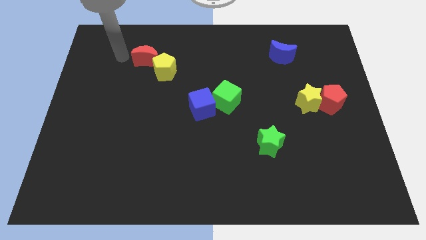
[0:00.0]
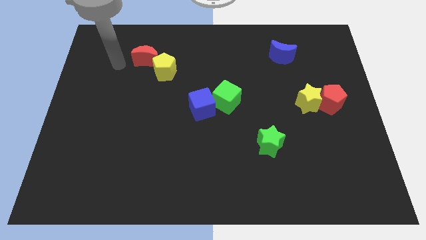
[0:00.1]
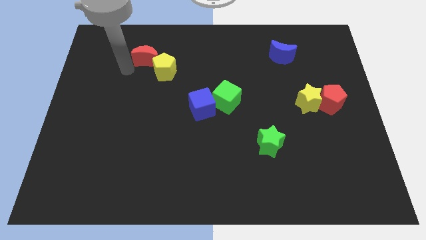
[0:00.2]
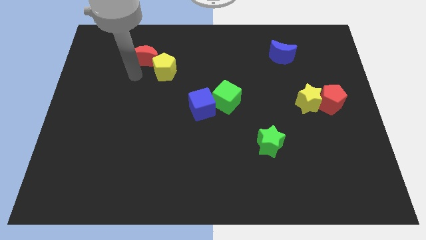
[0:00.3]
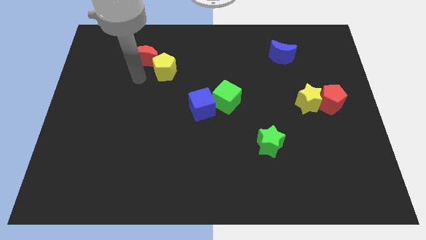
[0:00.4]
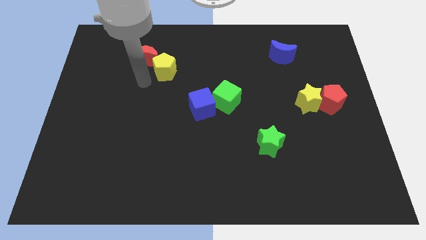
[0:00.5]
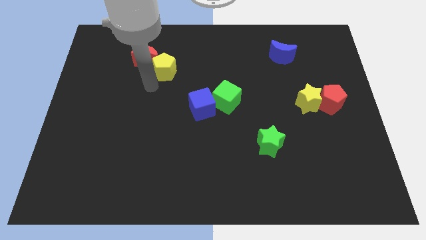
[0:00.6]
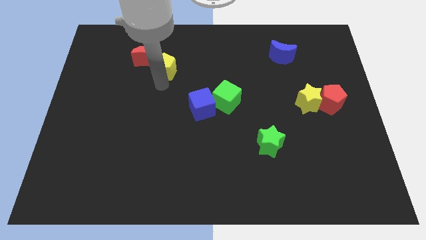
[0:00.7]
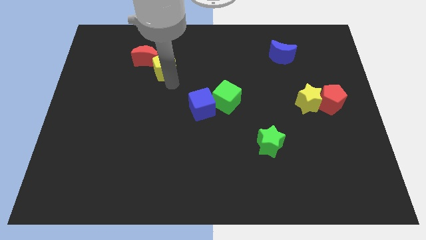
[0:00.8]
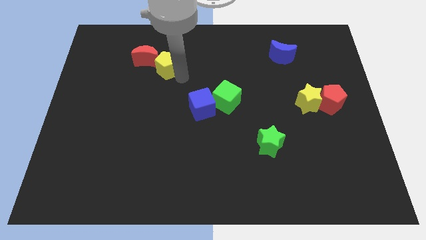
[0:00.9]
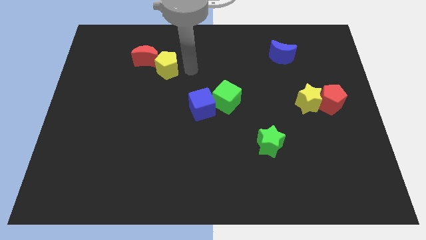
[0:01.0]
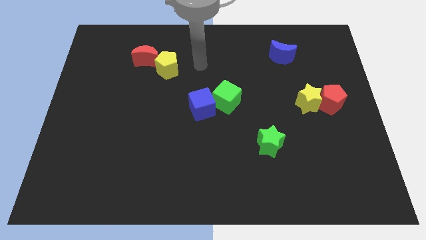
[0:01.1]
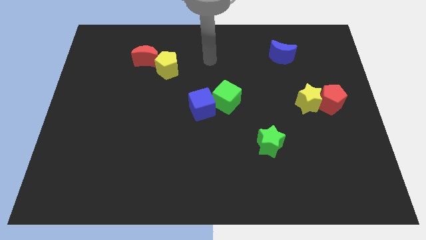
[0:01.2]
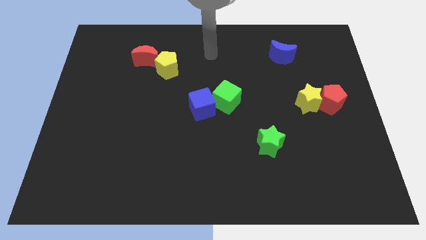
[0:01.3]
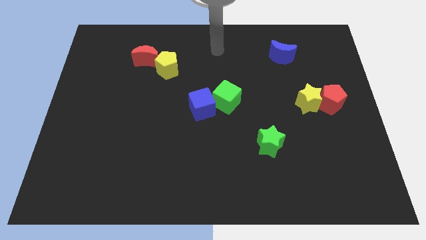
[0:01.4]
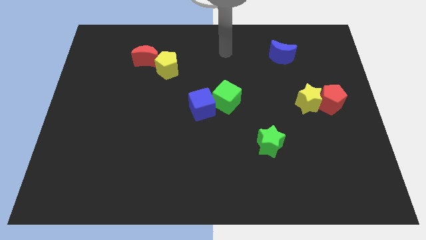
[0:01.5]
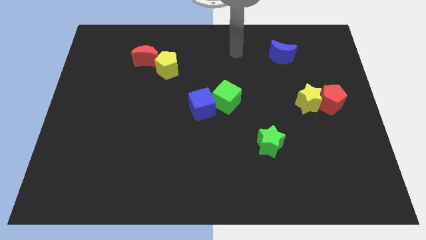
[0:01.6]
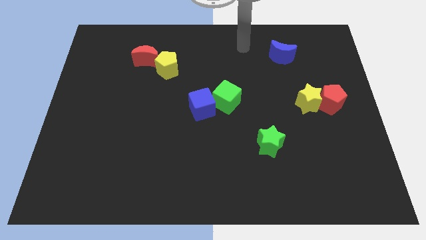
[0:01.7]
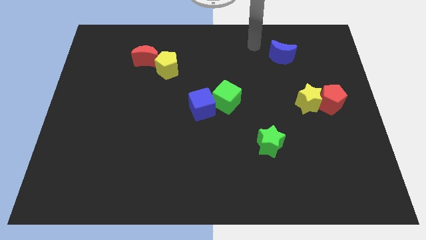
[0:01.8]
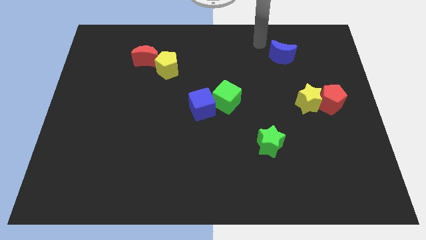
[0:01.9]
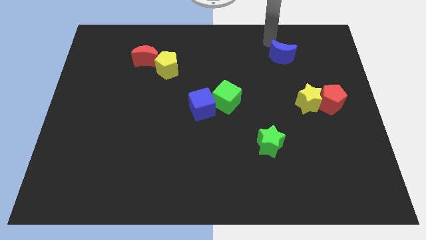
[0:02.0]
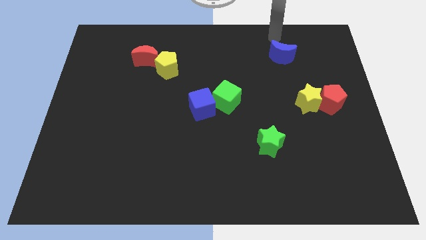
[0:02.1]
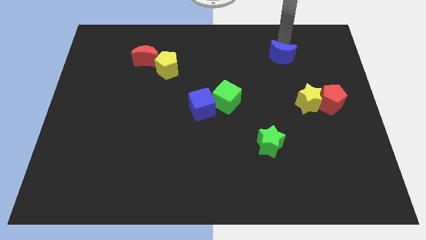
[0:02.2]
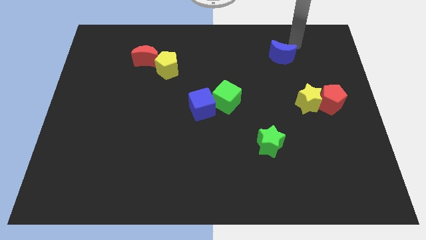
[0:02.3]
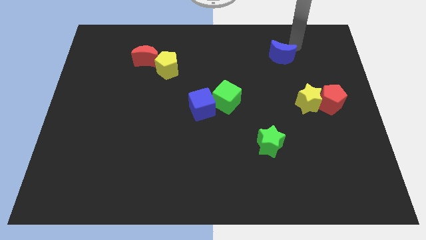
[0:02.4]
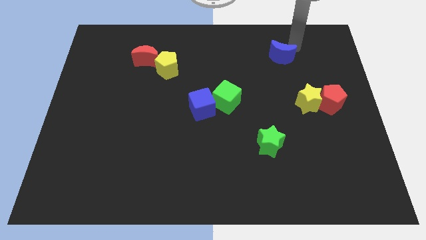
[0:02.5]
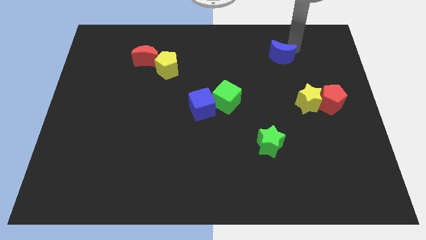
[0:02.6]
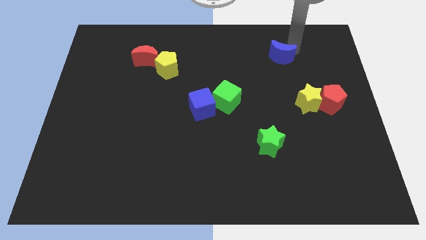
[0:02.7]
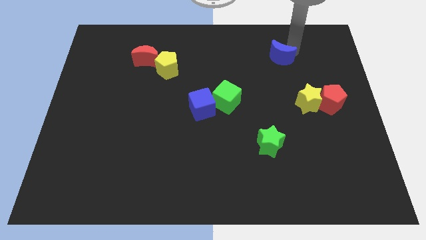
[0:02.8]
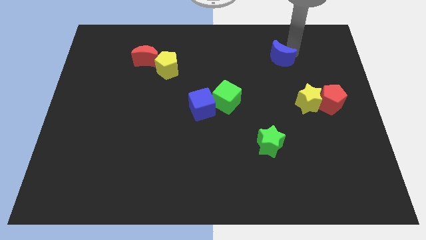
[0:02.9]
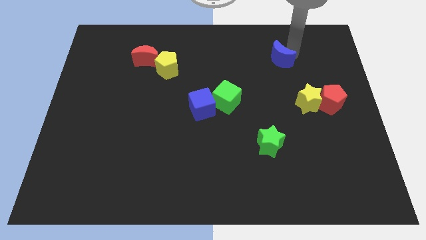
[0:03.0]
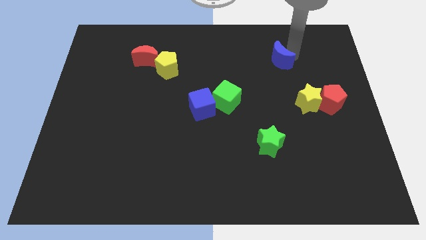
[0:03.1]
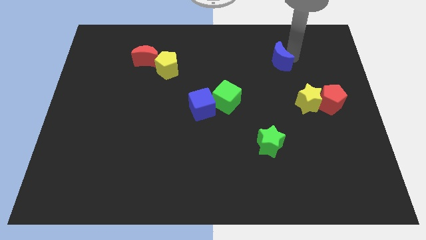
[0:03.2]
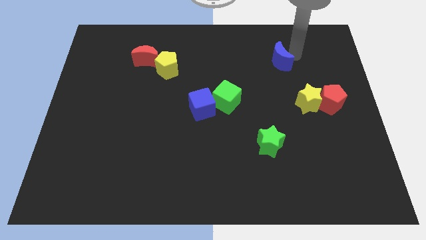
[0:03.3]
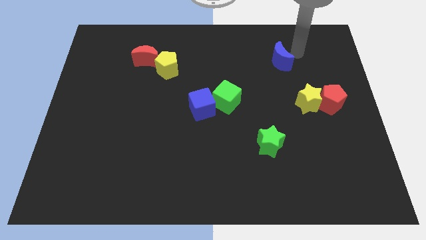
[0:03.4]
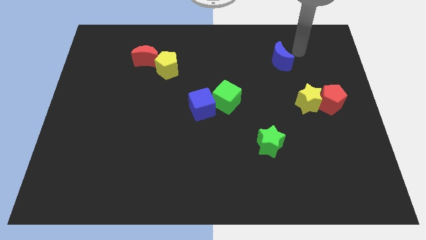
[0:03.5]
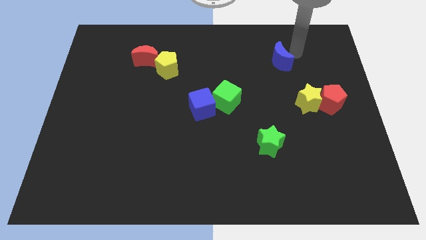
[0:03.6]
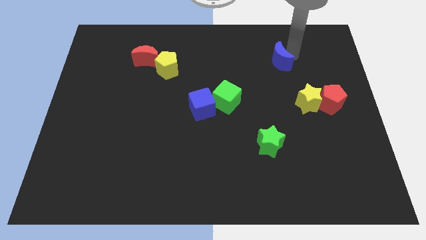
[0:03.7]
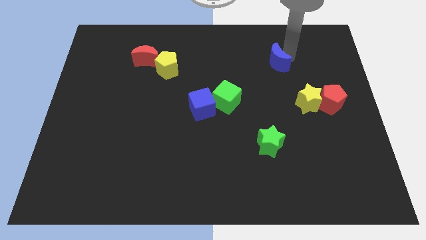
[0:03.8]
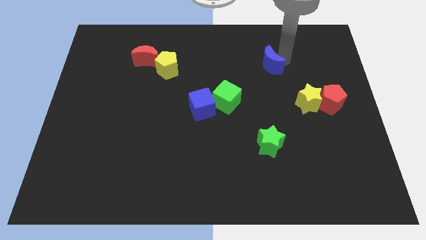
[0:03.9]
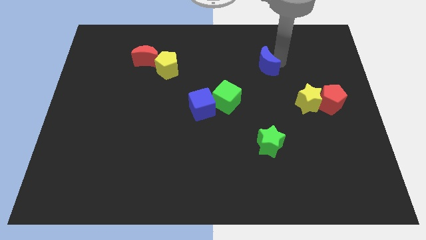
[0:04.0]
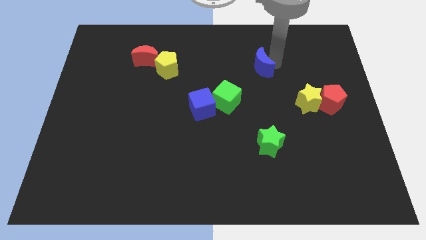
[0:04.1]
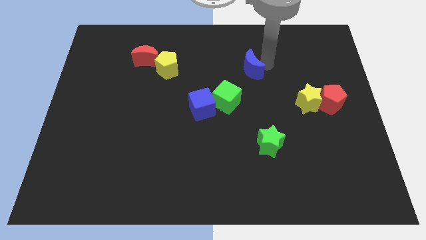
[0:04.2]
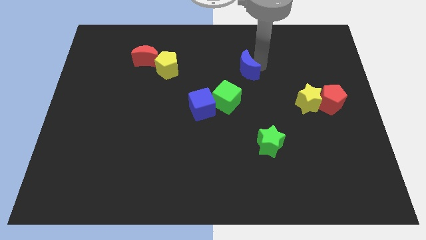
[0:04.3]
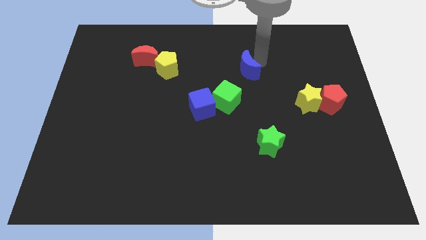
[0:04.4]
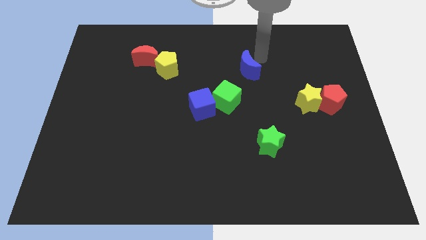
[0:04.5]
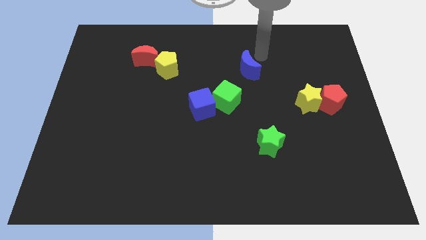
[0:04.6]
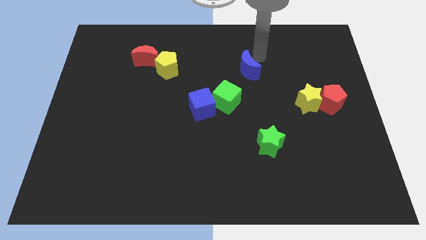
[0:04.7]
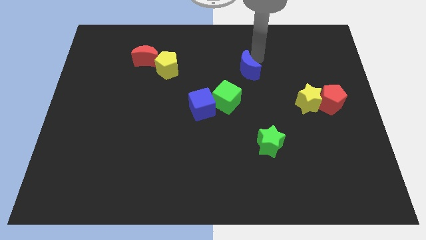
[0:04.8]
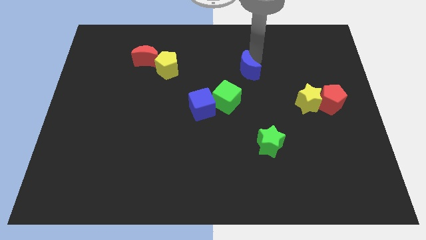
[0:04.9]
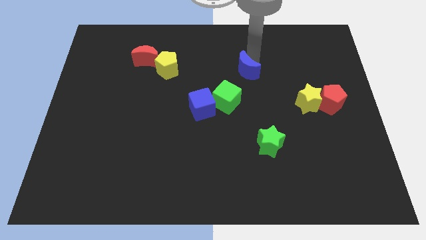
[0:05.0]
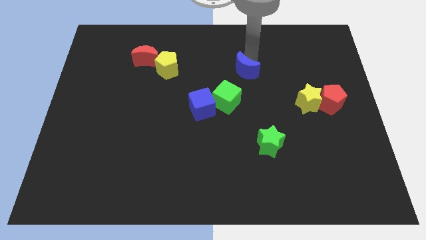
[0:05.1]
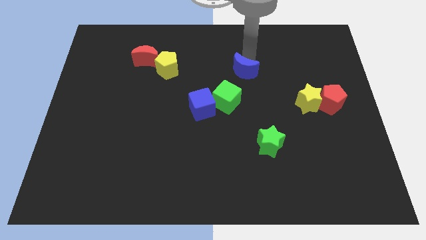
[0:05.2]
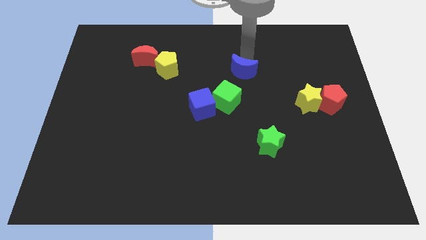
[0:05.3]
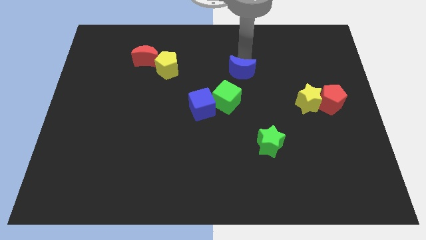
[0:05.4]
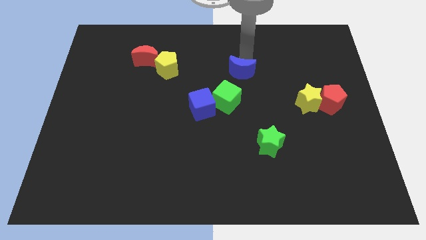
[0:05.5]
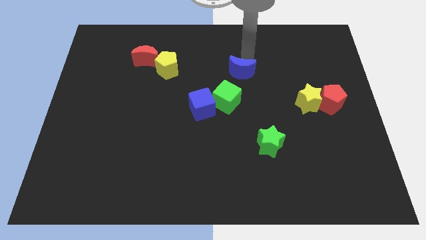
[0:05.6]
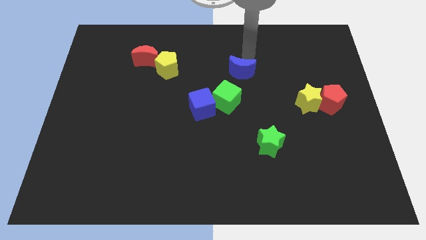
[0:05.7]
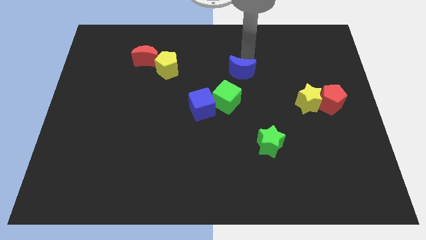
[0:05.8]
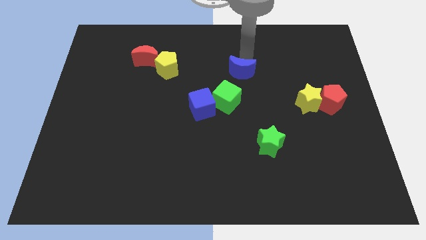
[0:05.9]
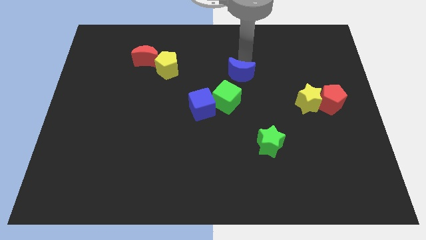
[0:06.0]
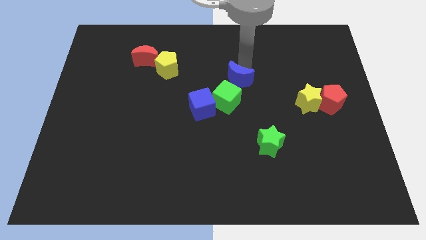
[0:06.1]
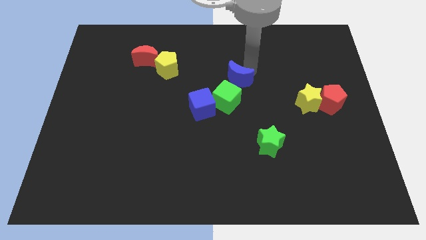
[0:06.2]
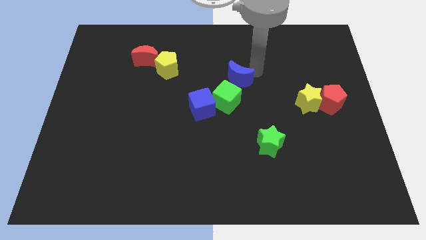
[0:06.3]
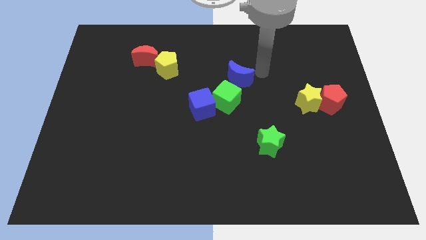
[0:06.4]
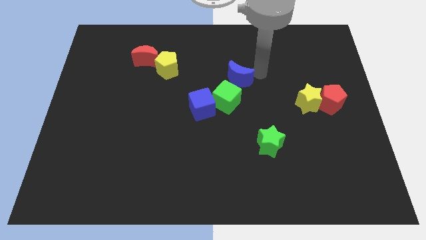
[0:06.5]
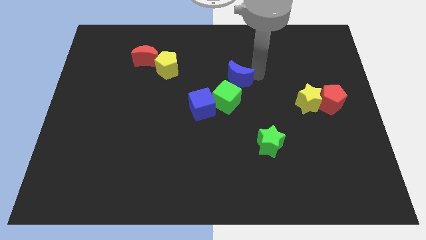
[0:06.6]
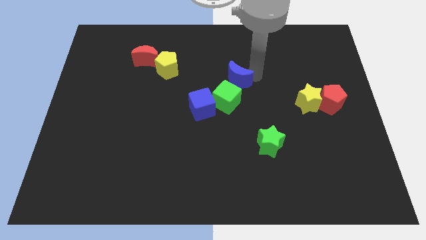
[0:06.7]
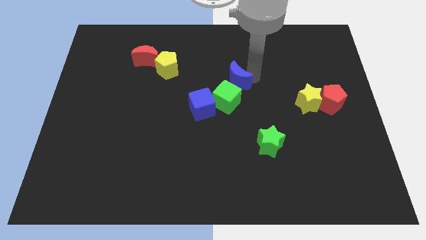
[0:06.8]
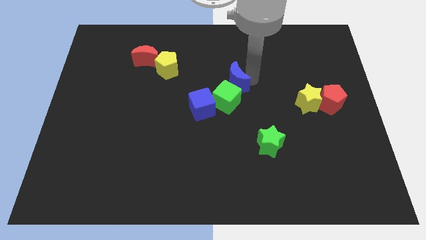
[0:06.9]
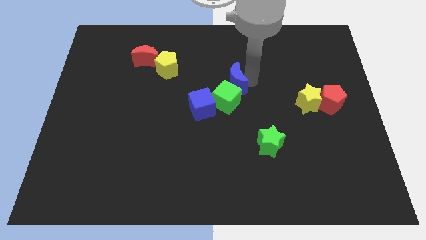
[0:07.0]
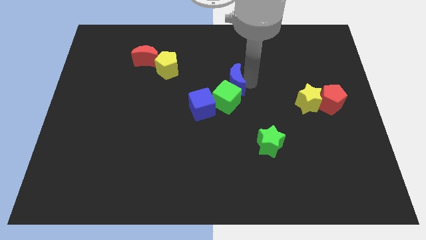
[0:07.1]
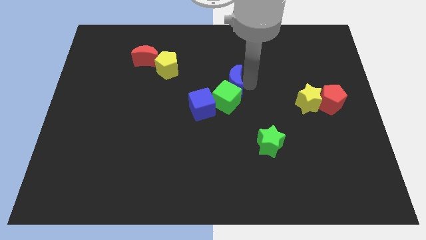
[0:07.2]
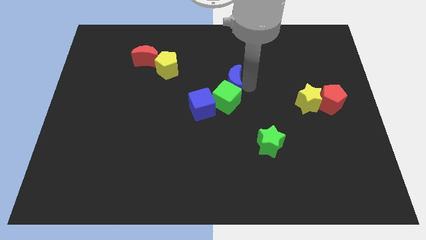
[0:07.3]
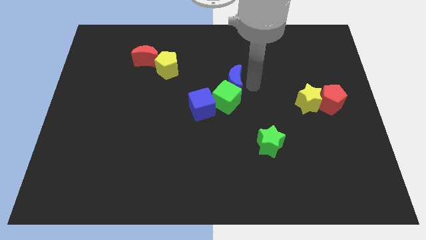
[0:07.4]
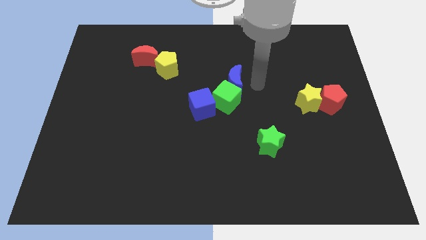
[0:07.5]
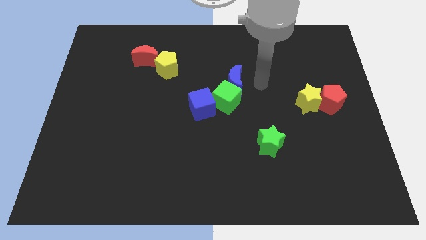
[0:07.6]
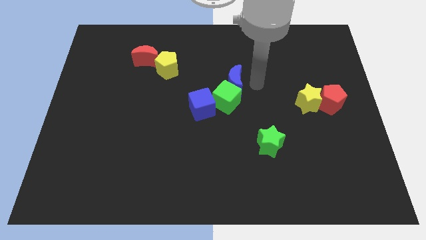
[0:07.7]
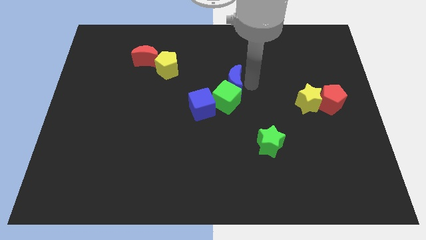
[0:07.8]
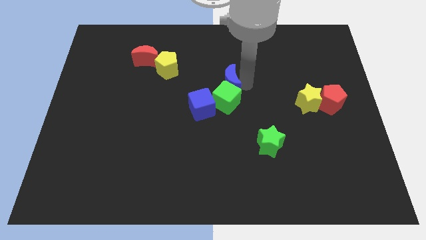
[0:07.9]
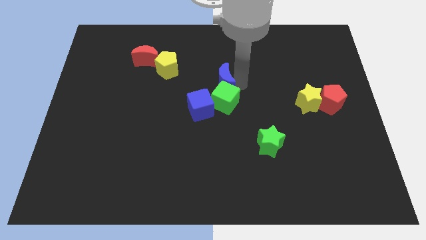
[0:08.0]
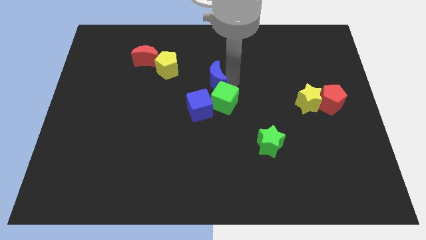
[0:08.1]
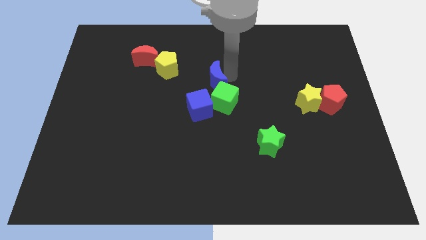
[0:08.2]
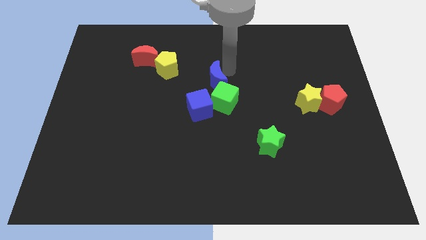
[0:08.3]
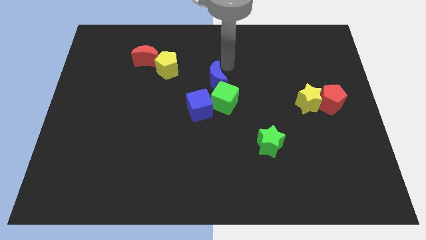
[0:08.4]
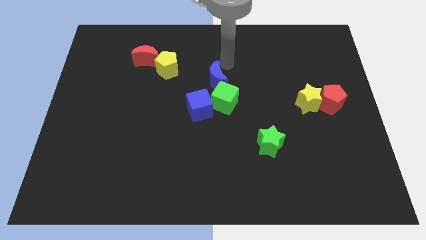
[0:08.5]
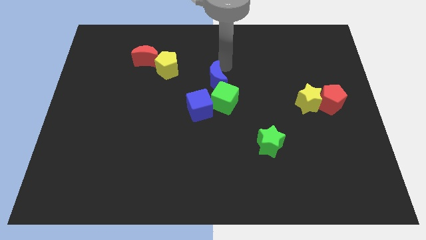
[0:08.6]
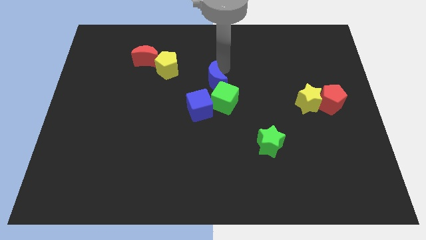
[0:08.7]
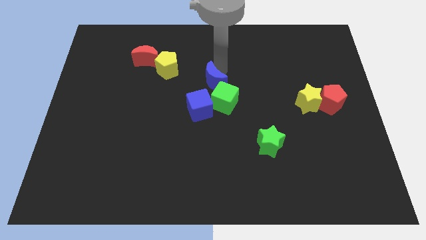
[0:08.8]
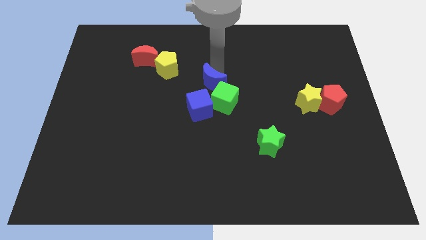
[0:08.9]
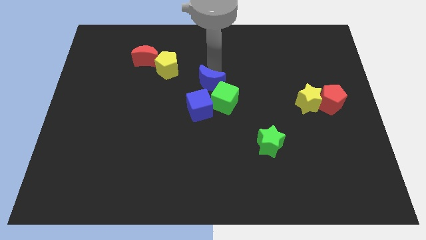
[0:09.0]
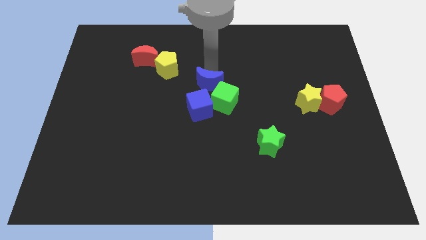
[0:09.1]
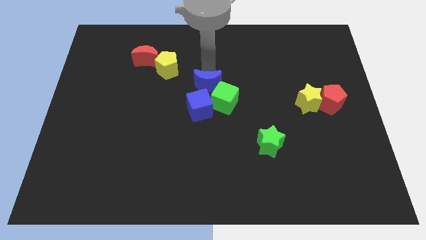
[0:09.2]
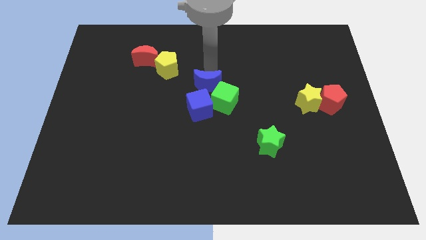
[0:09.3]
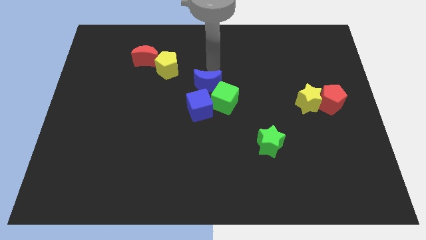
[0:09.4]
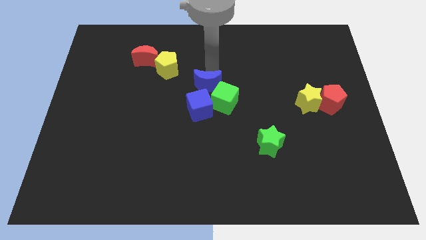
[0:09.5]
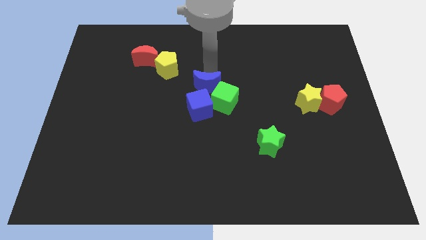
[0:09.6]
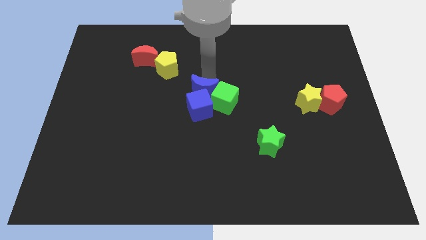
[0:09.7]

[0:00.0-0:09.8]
push the blue moon to the blue cube
